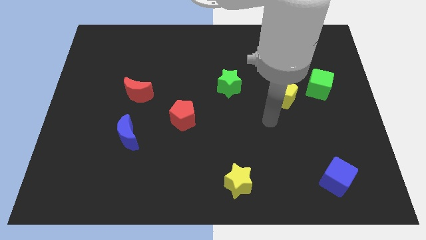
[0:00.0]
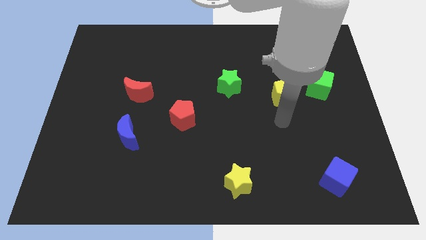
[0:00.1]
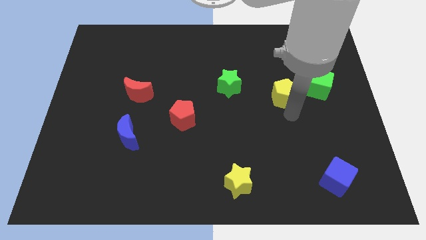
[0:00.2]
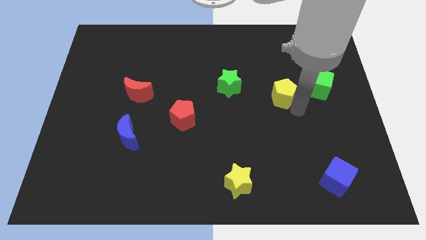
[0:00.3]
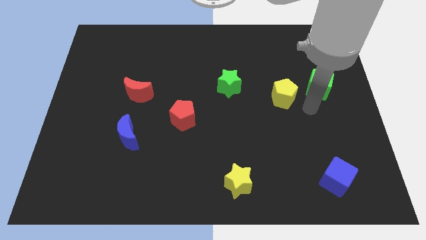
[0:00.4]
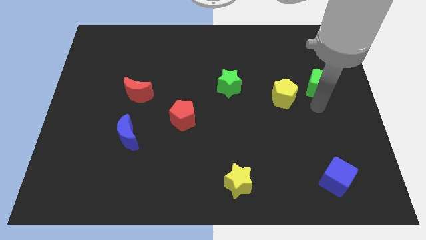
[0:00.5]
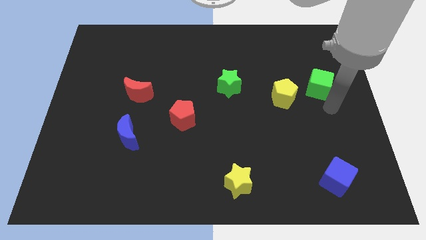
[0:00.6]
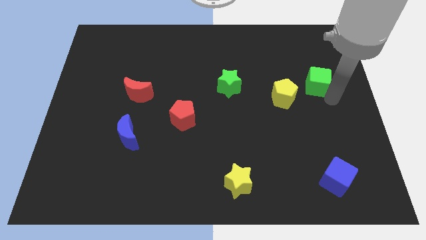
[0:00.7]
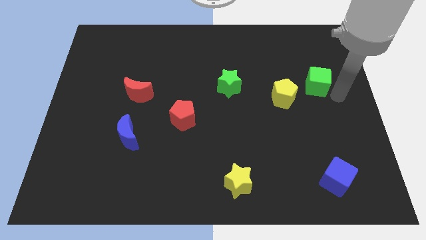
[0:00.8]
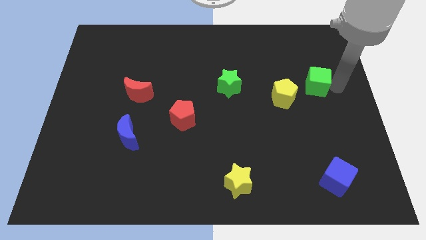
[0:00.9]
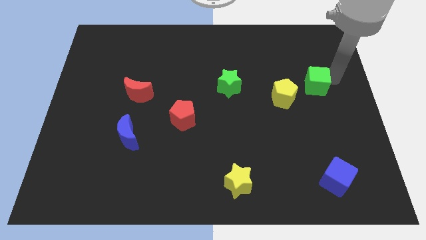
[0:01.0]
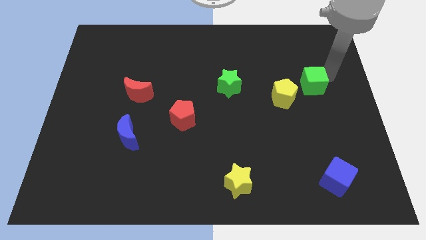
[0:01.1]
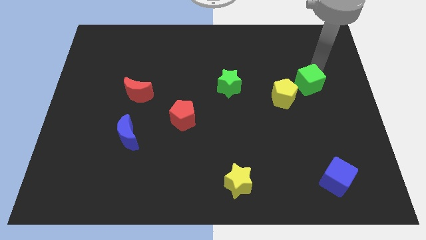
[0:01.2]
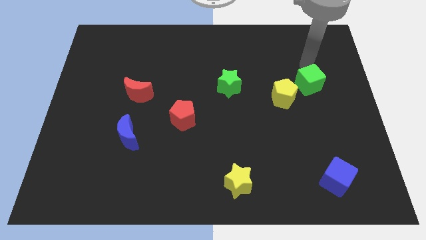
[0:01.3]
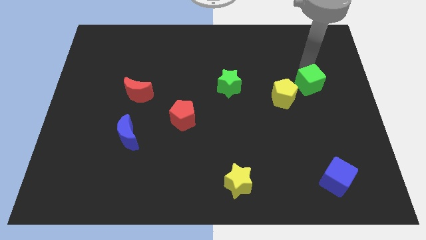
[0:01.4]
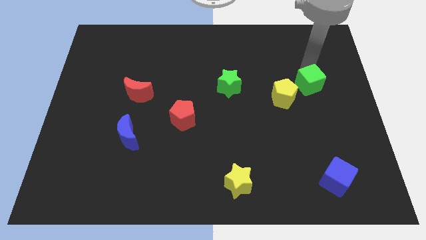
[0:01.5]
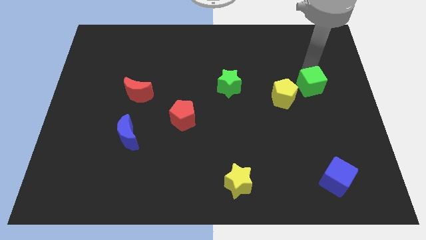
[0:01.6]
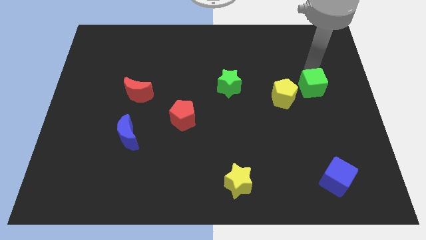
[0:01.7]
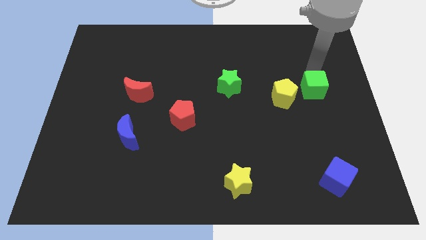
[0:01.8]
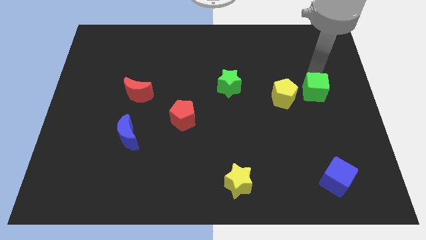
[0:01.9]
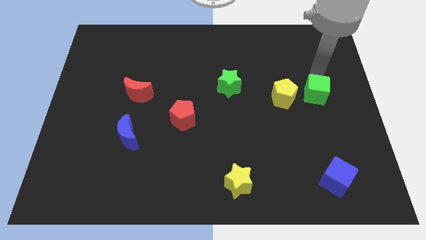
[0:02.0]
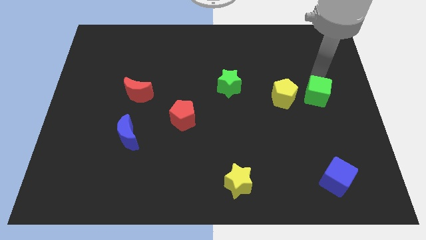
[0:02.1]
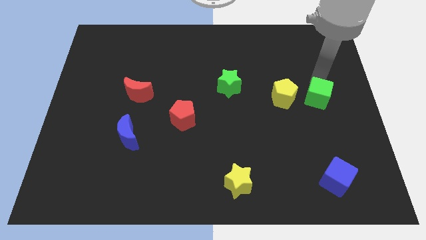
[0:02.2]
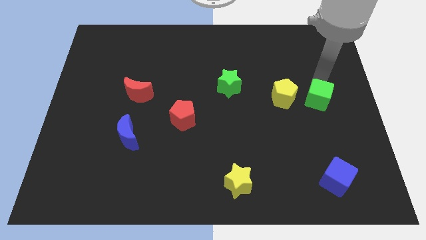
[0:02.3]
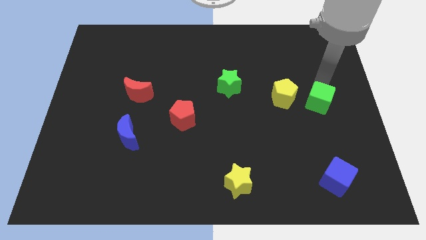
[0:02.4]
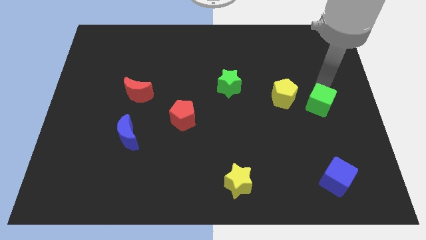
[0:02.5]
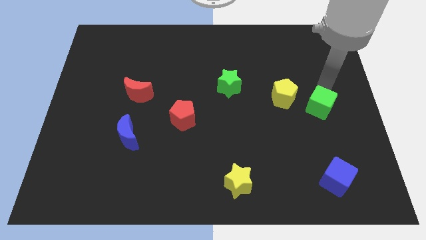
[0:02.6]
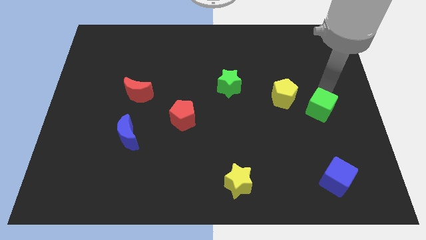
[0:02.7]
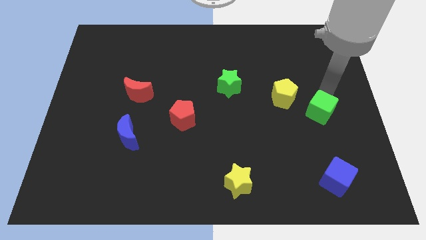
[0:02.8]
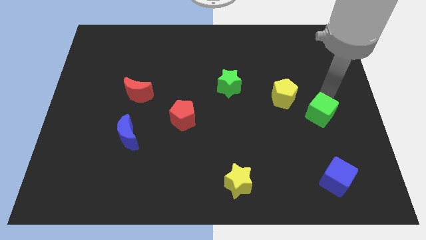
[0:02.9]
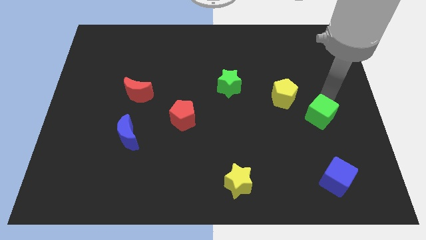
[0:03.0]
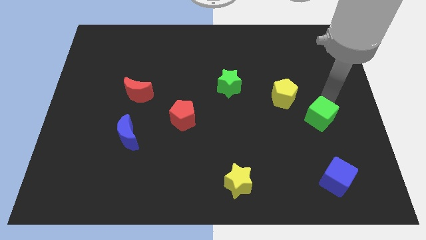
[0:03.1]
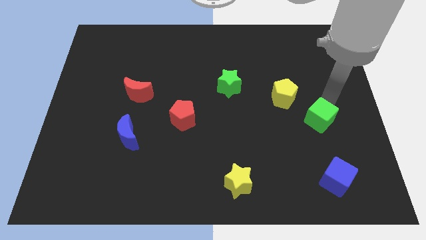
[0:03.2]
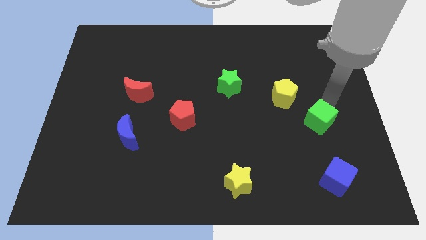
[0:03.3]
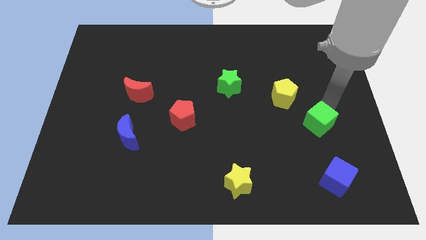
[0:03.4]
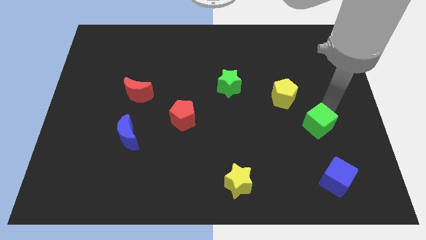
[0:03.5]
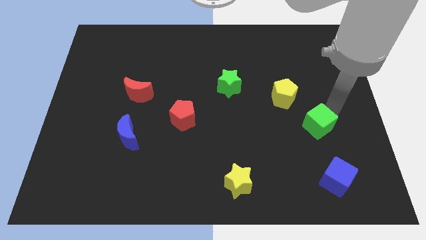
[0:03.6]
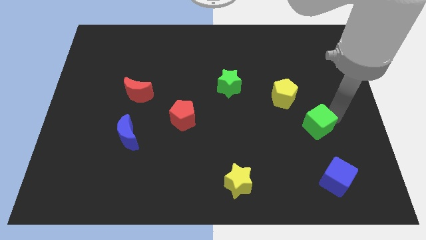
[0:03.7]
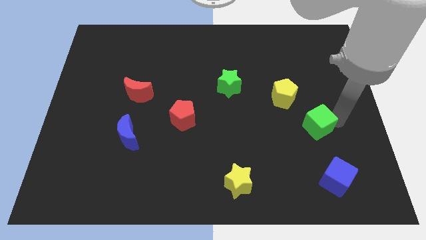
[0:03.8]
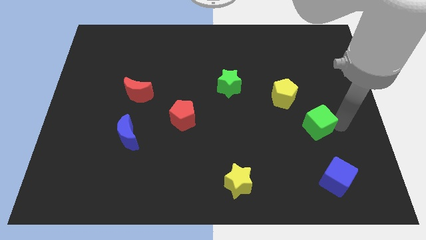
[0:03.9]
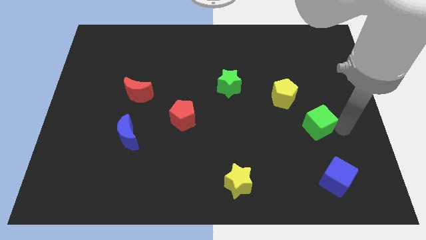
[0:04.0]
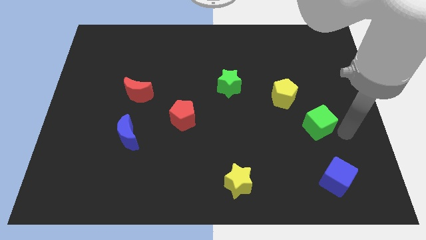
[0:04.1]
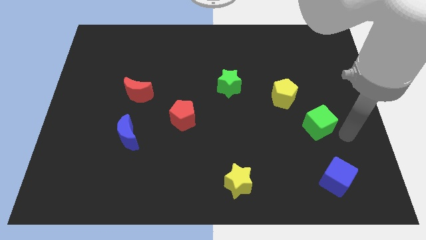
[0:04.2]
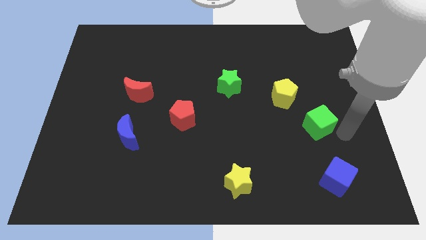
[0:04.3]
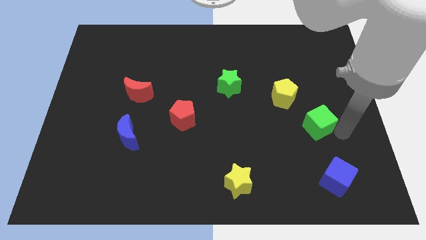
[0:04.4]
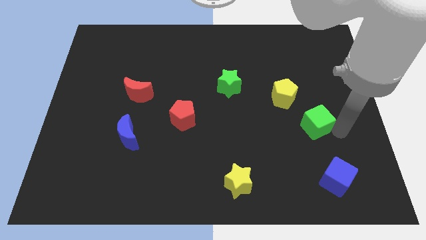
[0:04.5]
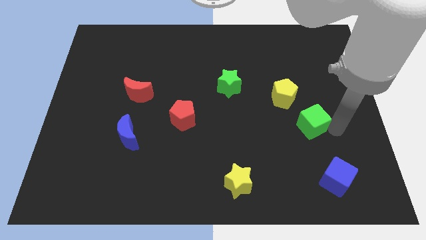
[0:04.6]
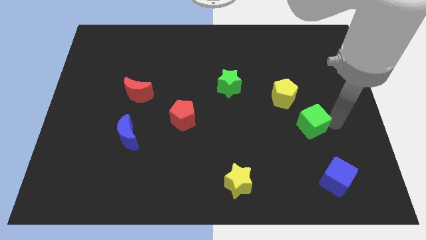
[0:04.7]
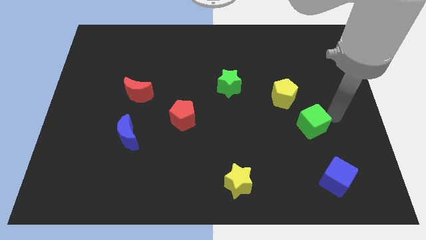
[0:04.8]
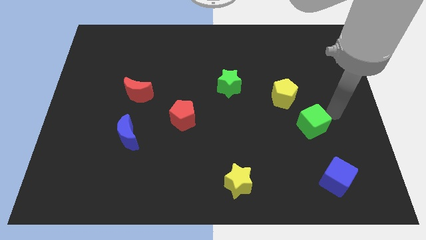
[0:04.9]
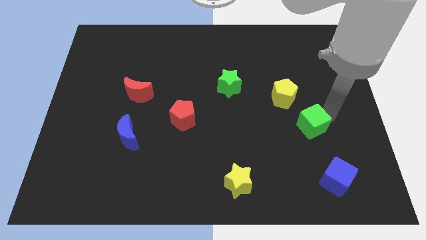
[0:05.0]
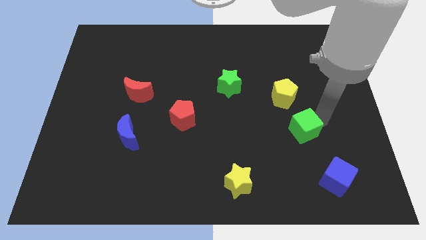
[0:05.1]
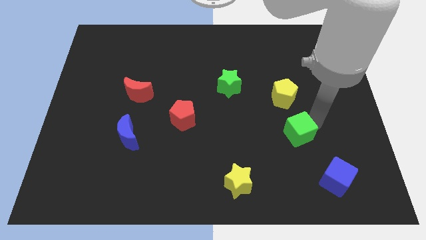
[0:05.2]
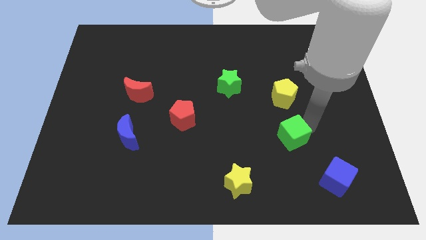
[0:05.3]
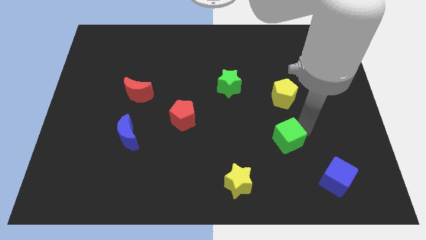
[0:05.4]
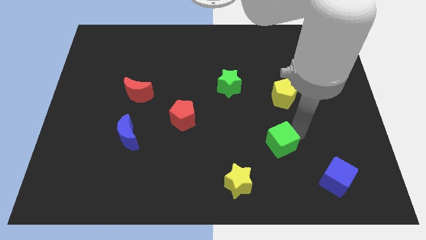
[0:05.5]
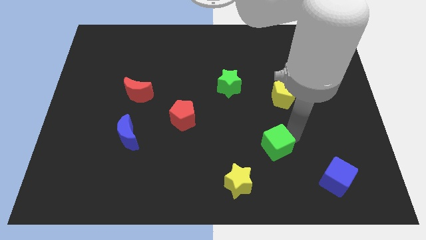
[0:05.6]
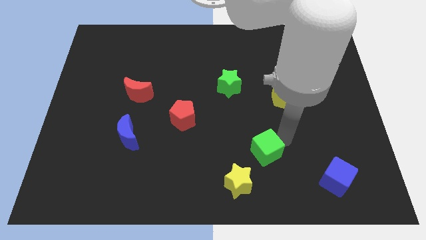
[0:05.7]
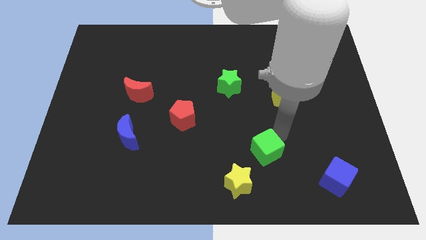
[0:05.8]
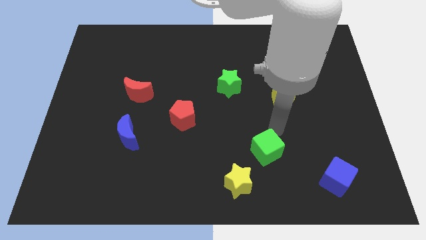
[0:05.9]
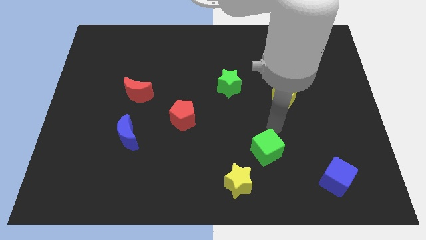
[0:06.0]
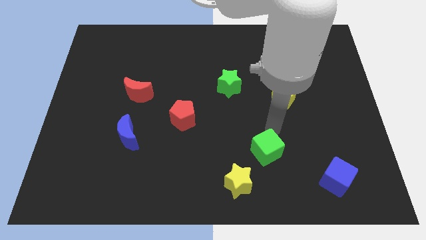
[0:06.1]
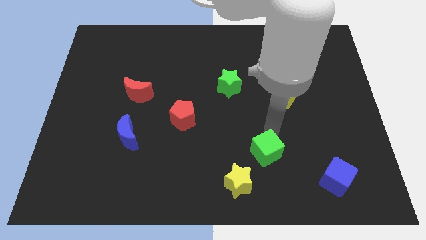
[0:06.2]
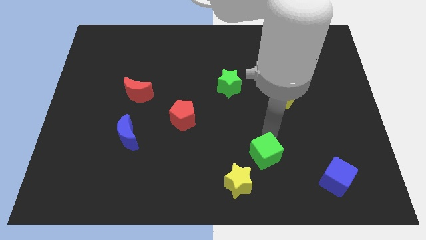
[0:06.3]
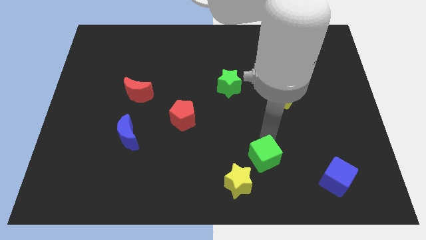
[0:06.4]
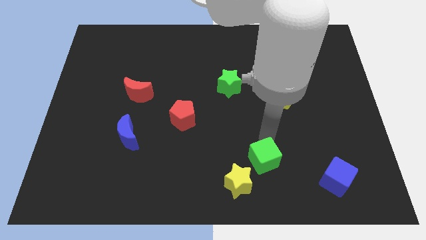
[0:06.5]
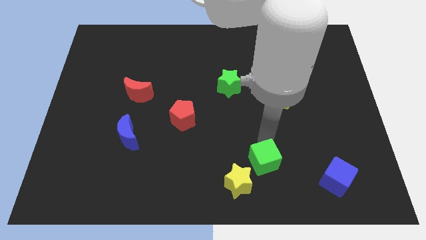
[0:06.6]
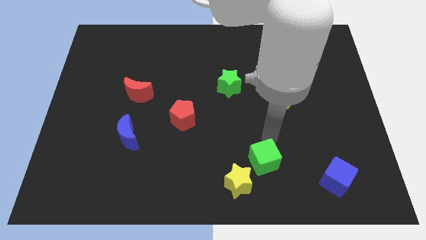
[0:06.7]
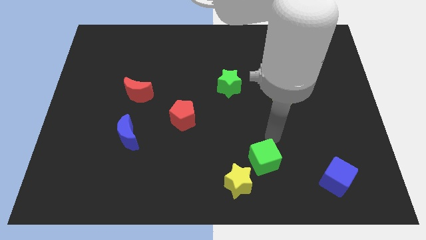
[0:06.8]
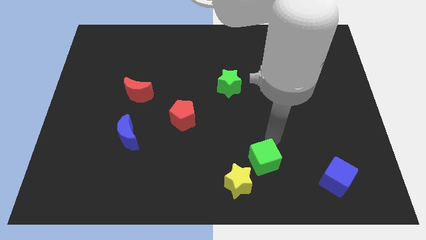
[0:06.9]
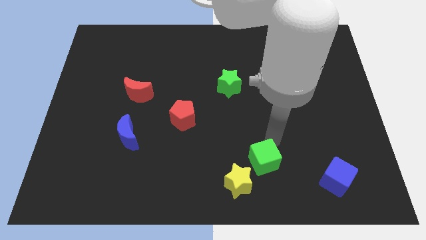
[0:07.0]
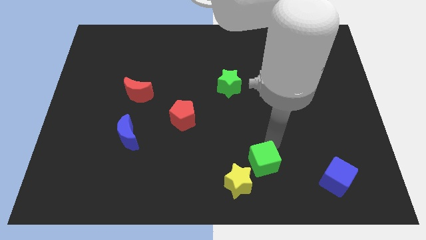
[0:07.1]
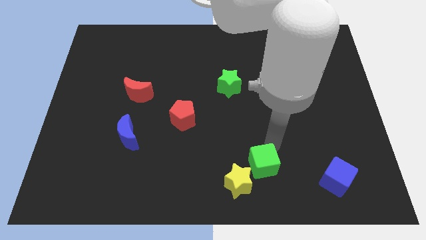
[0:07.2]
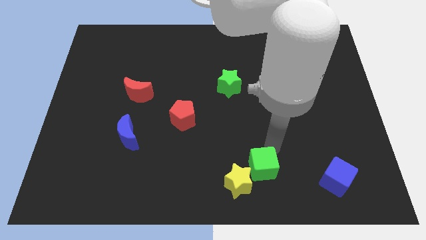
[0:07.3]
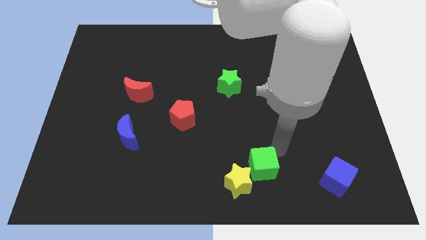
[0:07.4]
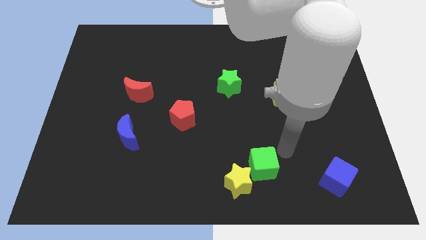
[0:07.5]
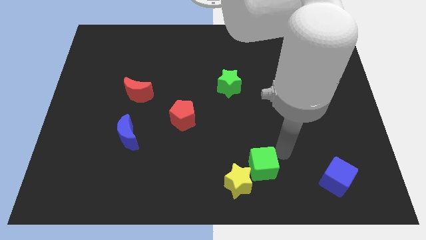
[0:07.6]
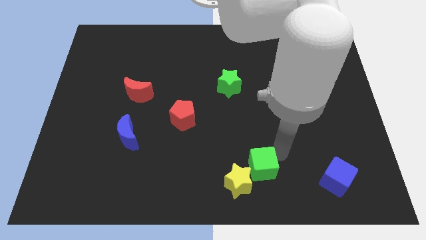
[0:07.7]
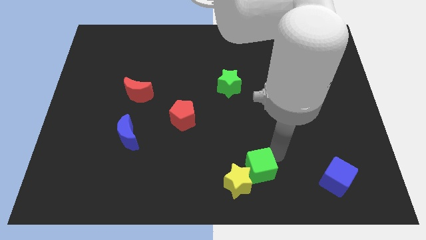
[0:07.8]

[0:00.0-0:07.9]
move the green cube close to the yellow star
